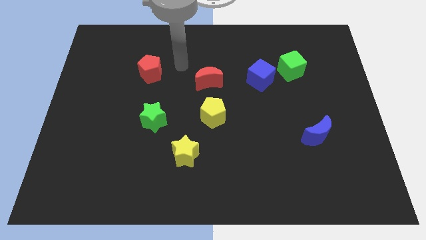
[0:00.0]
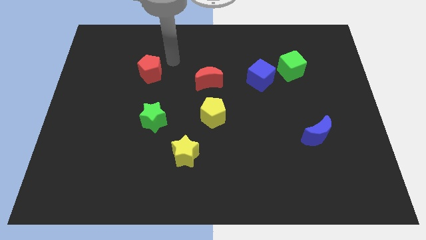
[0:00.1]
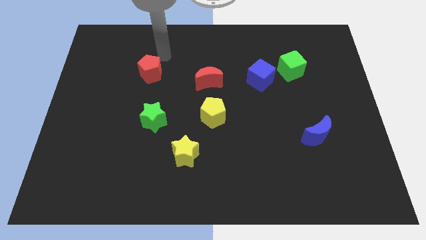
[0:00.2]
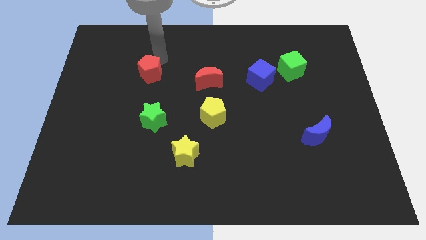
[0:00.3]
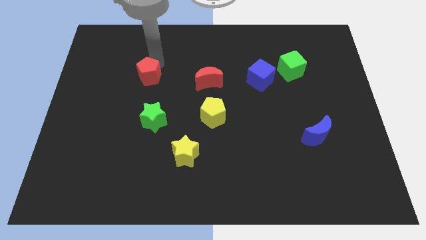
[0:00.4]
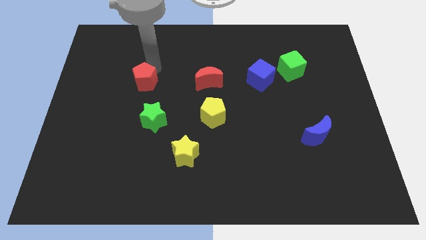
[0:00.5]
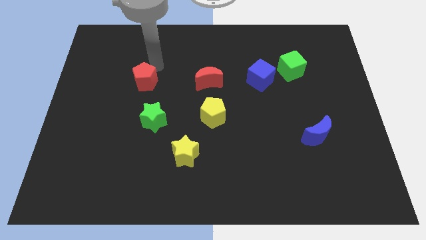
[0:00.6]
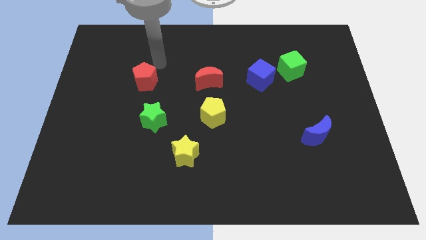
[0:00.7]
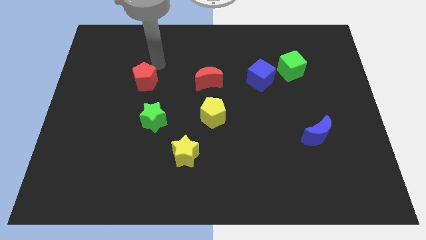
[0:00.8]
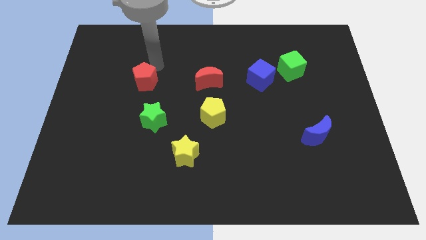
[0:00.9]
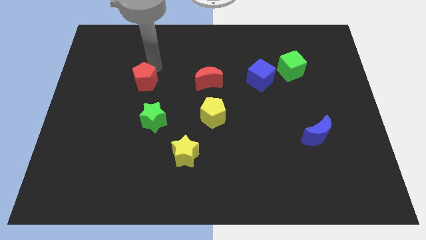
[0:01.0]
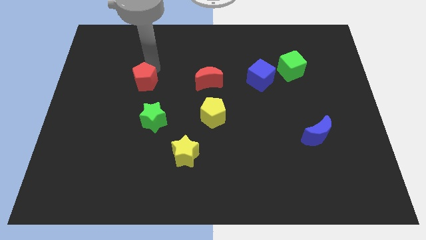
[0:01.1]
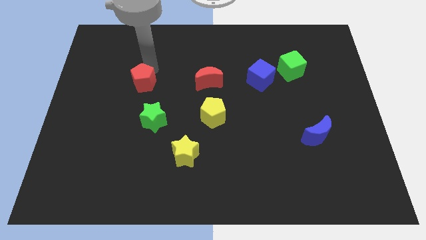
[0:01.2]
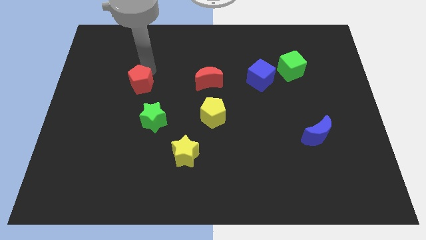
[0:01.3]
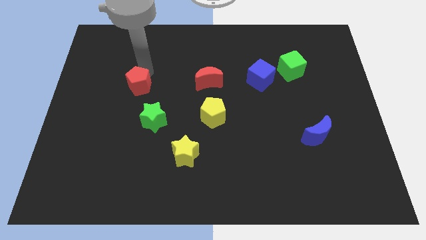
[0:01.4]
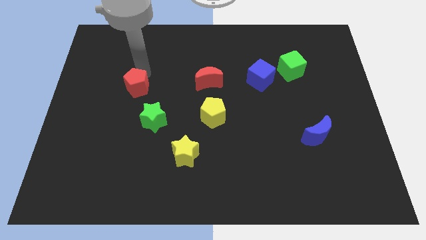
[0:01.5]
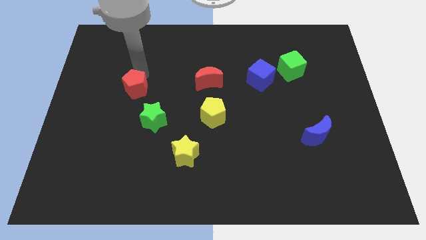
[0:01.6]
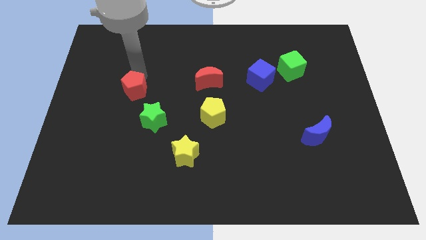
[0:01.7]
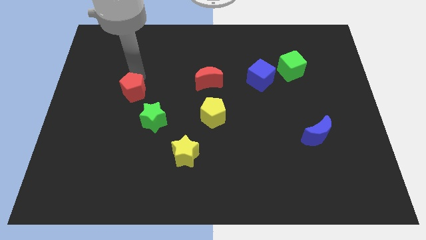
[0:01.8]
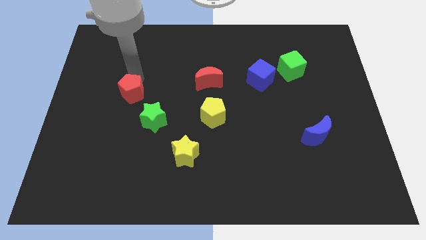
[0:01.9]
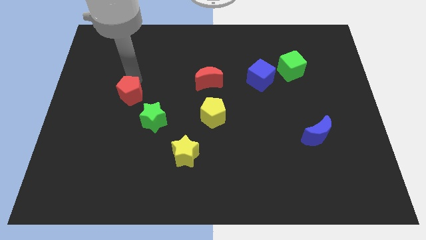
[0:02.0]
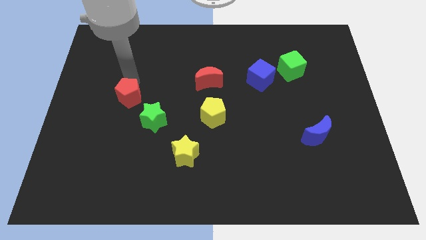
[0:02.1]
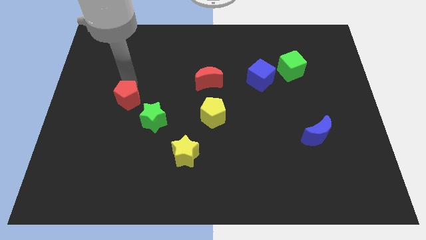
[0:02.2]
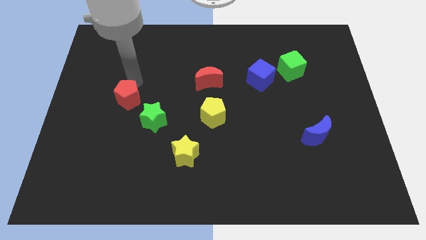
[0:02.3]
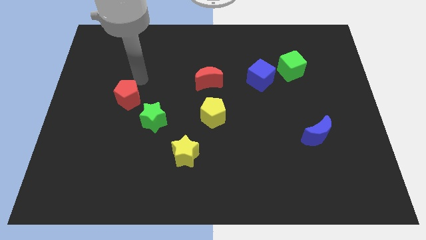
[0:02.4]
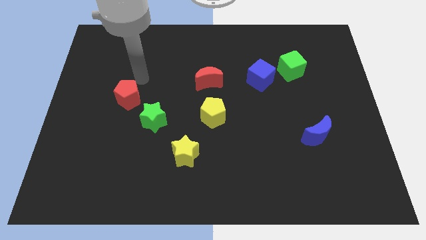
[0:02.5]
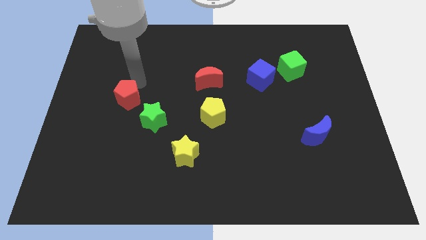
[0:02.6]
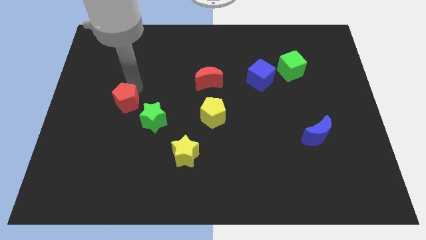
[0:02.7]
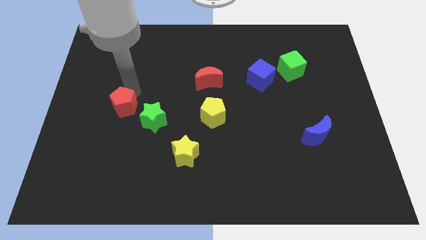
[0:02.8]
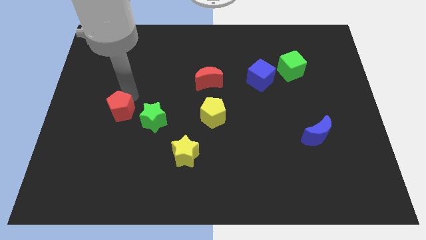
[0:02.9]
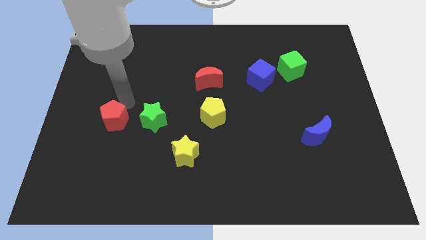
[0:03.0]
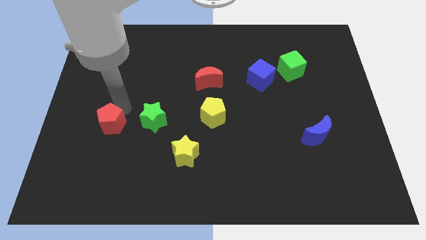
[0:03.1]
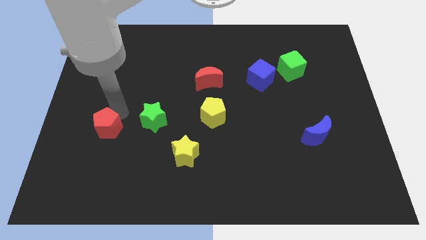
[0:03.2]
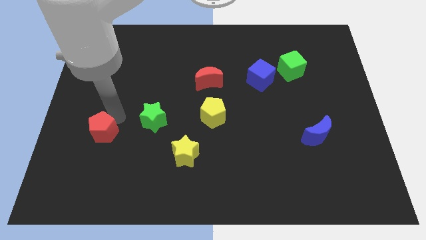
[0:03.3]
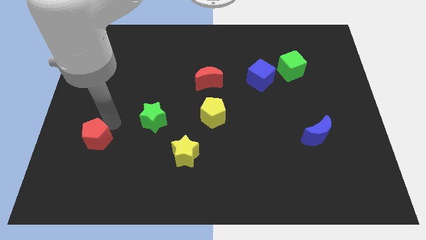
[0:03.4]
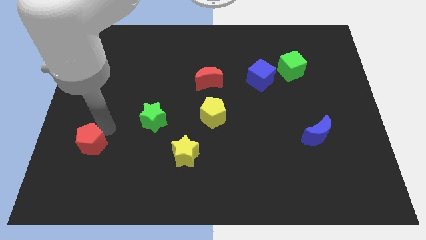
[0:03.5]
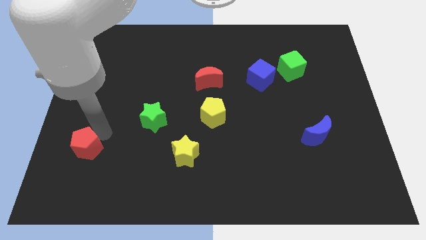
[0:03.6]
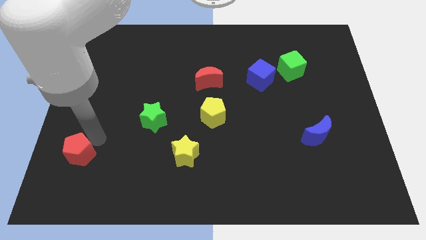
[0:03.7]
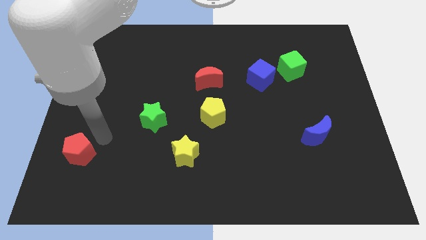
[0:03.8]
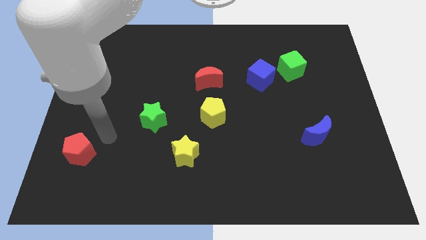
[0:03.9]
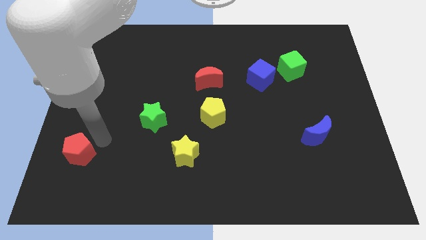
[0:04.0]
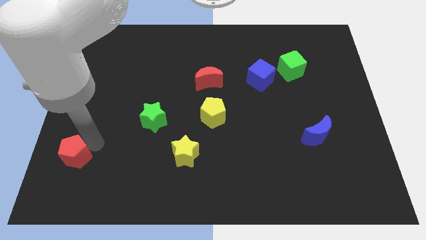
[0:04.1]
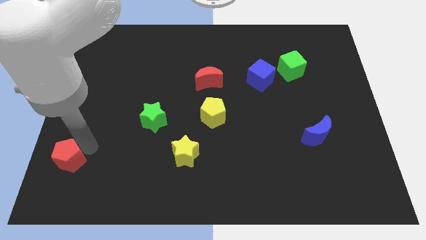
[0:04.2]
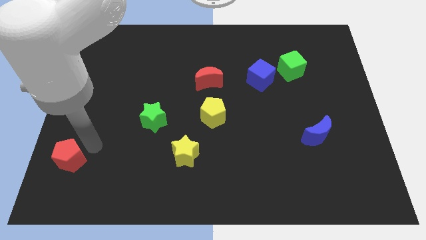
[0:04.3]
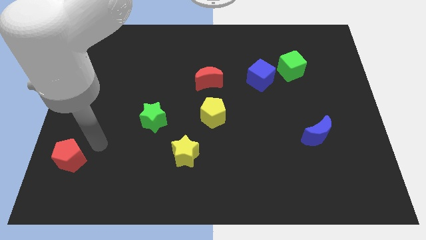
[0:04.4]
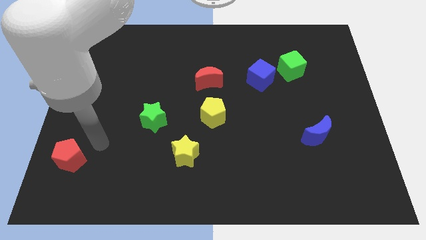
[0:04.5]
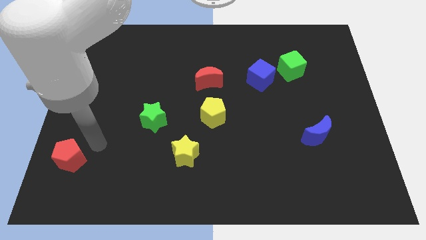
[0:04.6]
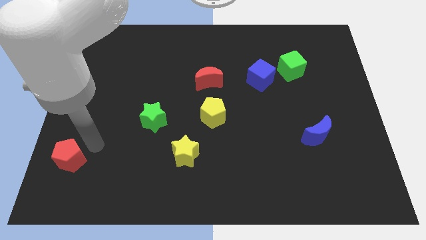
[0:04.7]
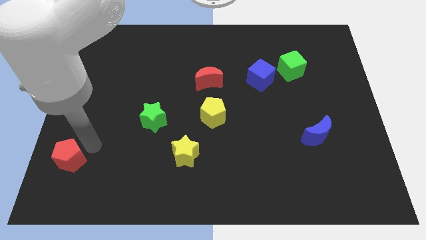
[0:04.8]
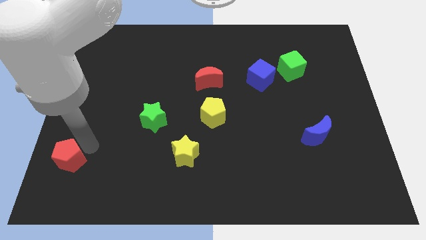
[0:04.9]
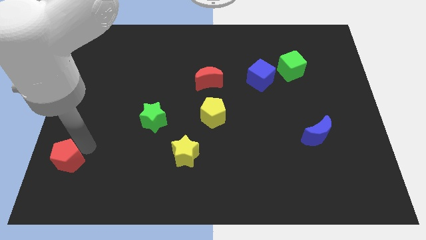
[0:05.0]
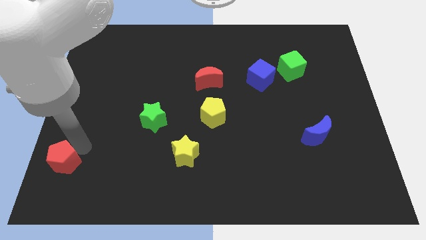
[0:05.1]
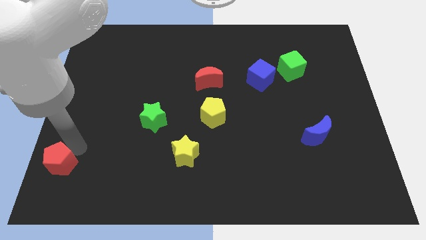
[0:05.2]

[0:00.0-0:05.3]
put the red pentagon to the lower left corner
